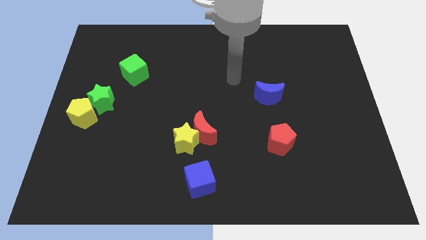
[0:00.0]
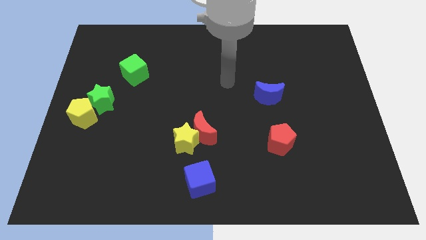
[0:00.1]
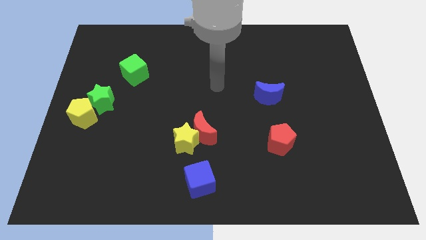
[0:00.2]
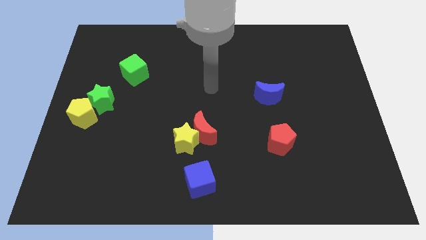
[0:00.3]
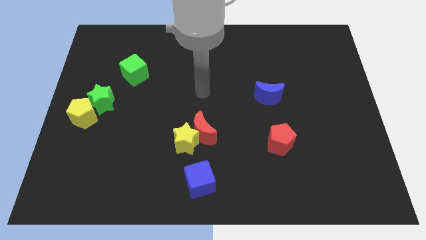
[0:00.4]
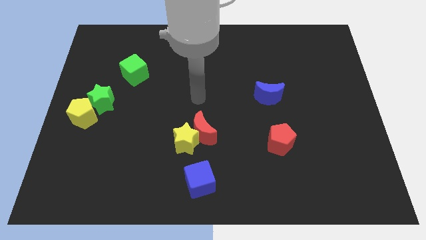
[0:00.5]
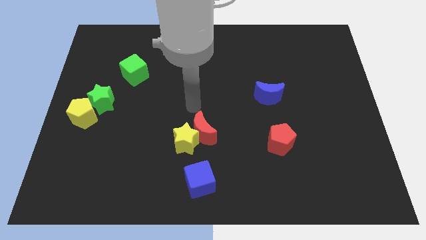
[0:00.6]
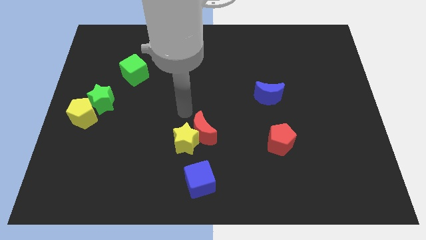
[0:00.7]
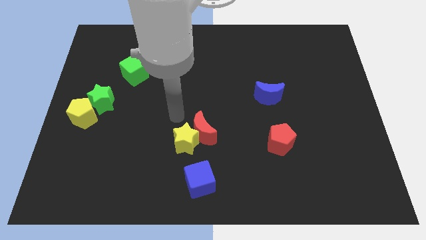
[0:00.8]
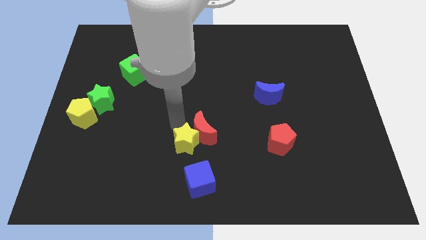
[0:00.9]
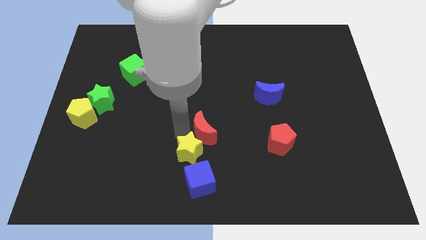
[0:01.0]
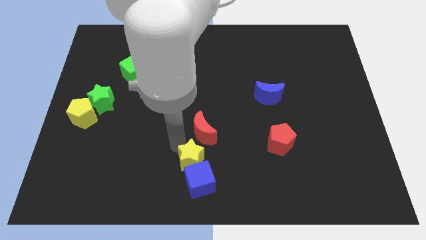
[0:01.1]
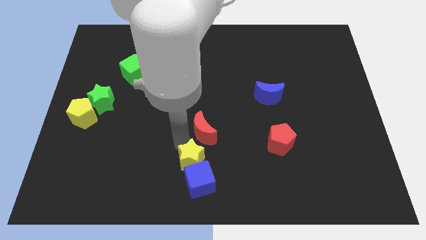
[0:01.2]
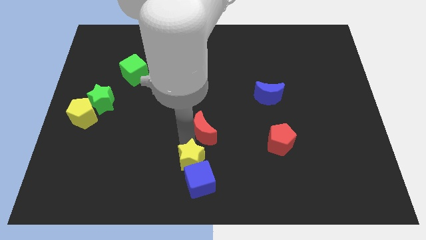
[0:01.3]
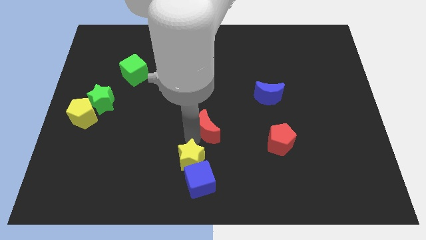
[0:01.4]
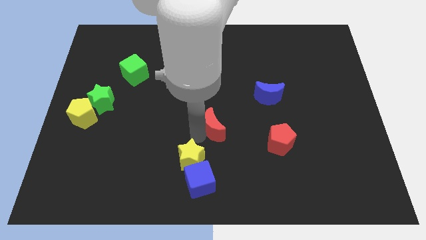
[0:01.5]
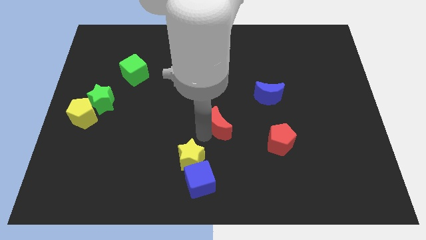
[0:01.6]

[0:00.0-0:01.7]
move the red moon away from the yellow star

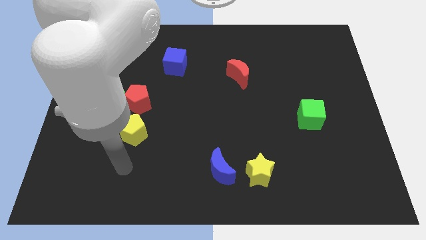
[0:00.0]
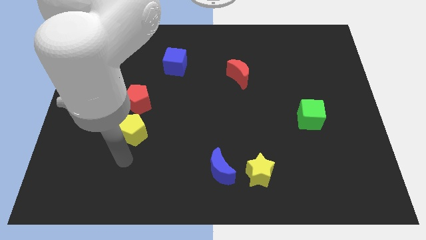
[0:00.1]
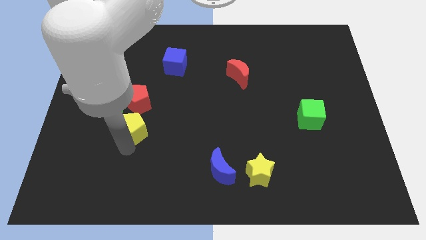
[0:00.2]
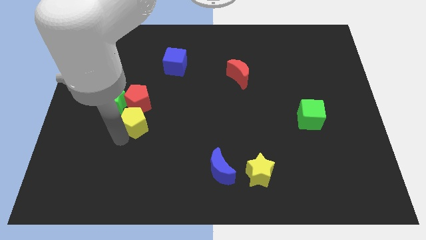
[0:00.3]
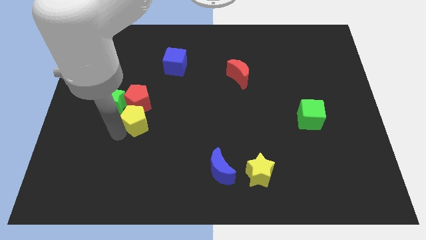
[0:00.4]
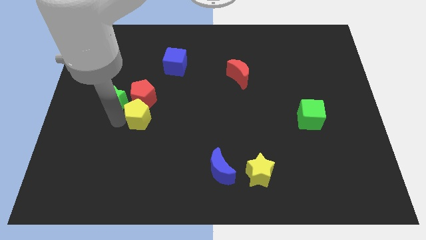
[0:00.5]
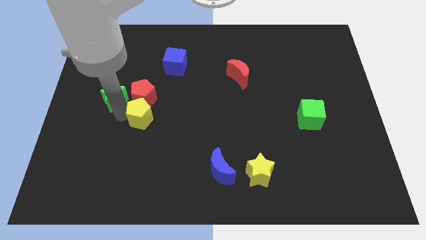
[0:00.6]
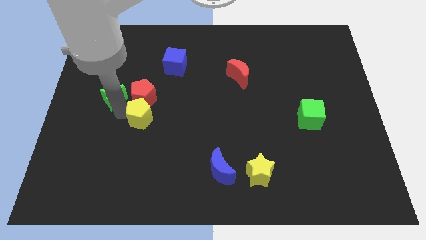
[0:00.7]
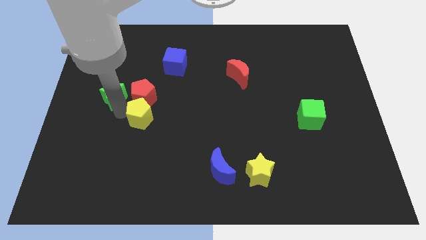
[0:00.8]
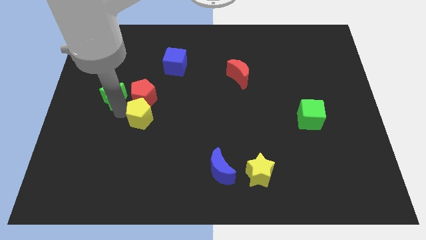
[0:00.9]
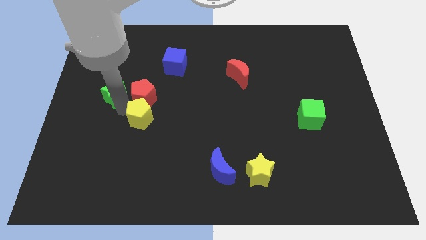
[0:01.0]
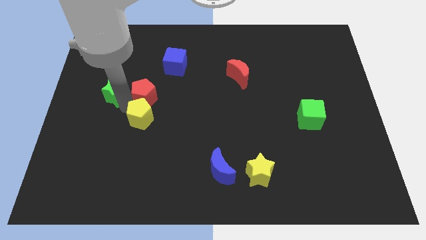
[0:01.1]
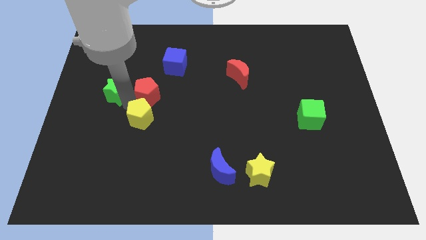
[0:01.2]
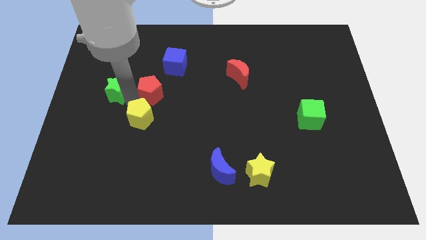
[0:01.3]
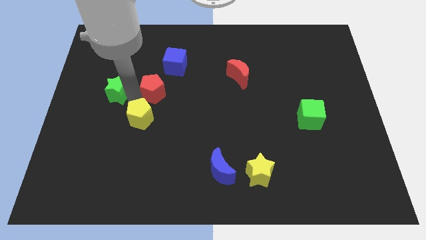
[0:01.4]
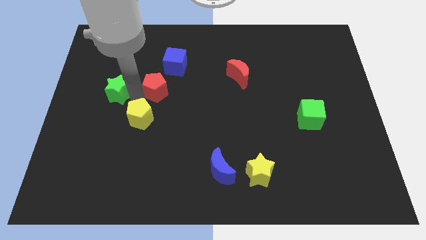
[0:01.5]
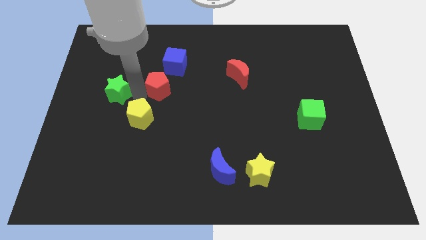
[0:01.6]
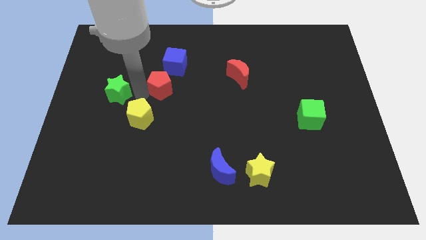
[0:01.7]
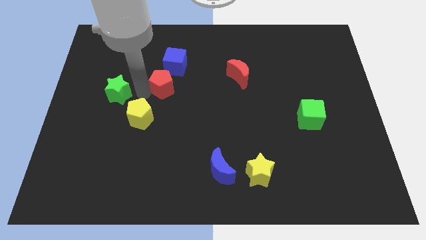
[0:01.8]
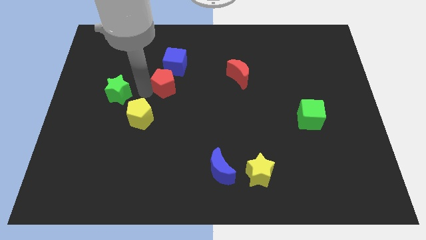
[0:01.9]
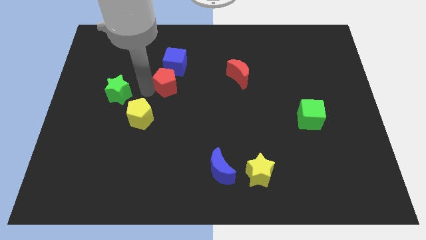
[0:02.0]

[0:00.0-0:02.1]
move the red pentagon away from the green star and yellow pentagon

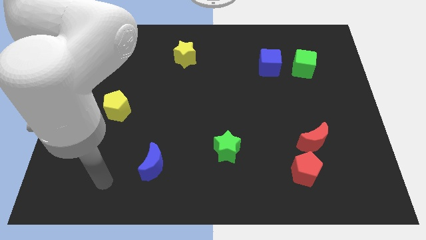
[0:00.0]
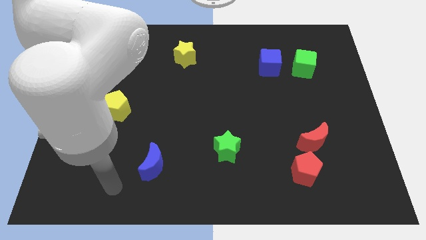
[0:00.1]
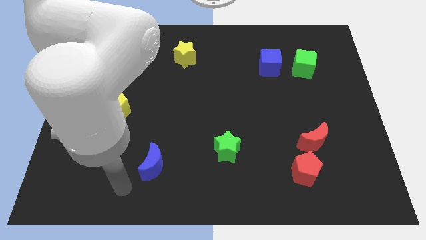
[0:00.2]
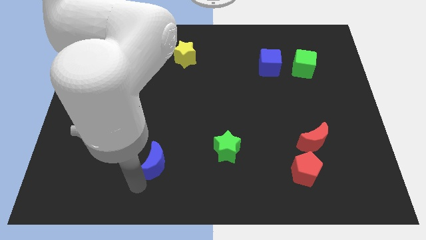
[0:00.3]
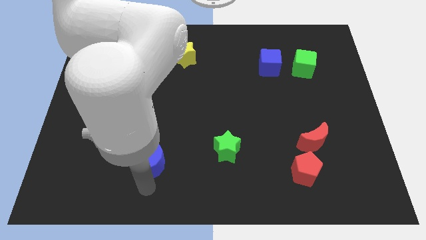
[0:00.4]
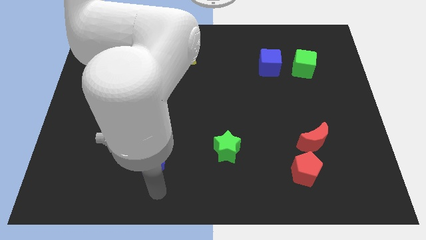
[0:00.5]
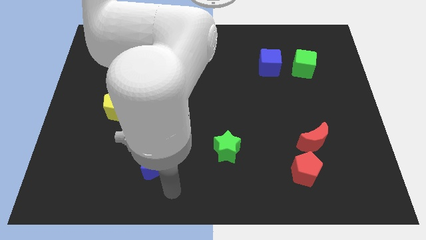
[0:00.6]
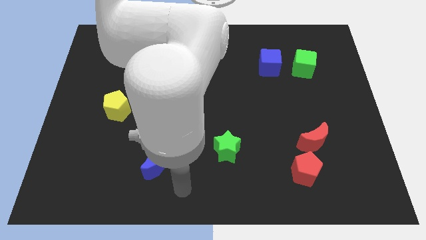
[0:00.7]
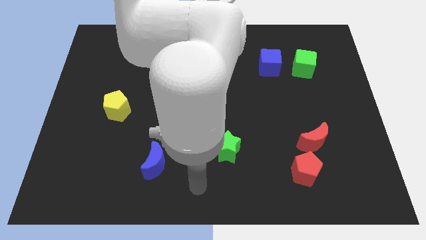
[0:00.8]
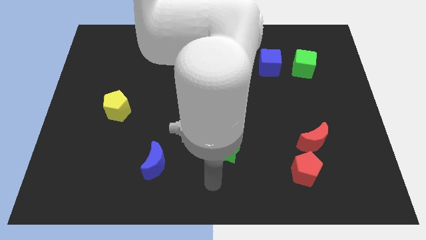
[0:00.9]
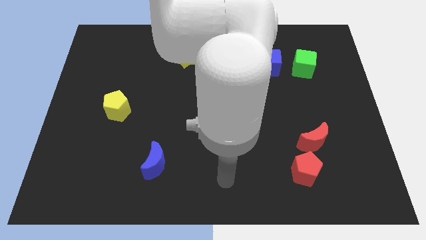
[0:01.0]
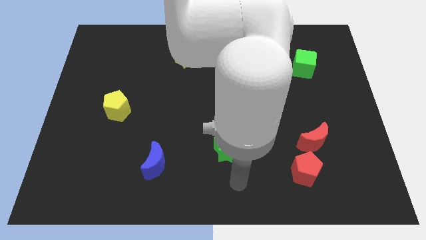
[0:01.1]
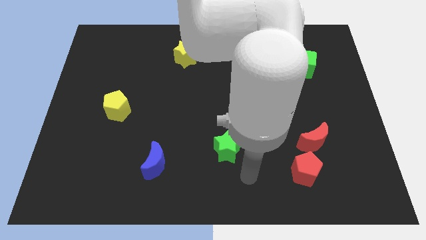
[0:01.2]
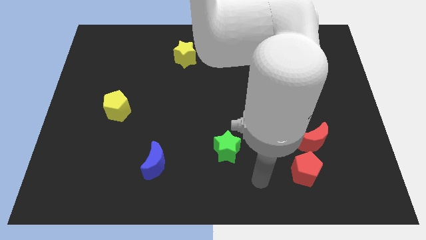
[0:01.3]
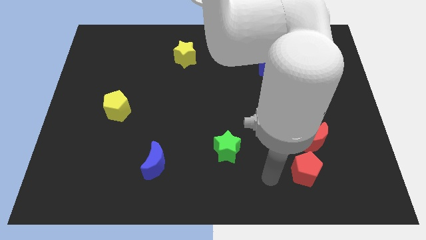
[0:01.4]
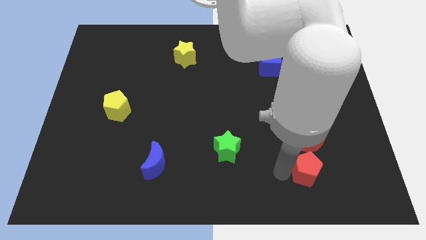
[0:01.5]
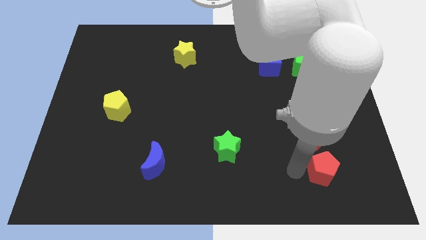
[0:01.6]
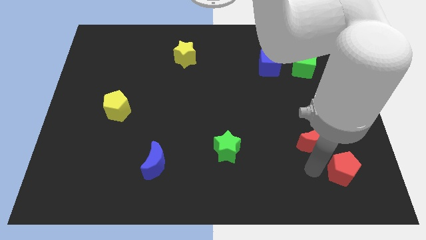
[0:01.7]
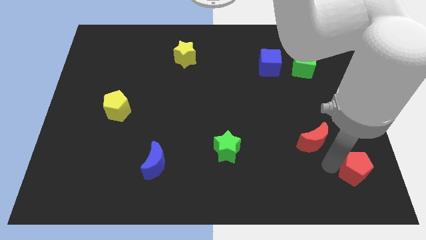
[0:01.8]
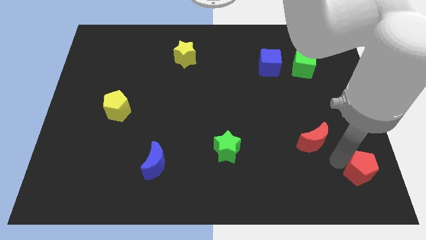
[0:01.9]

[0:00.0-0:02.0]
move the red moon away from the red pentagon

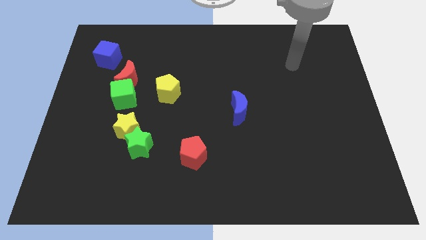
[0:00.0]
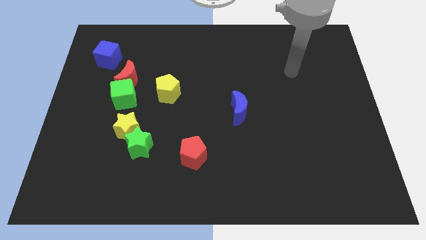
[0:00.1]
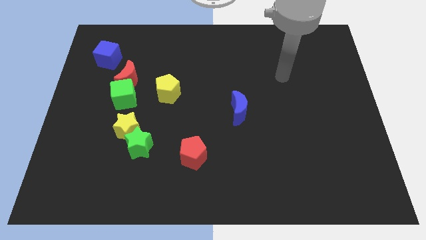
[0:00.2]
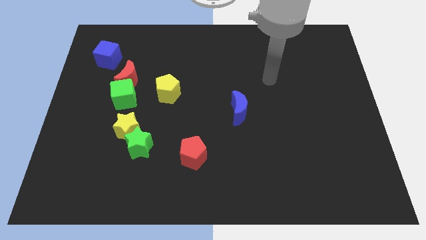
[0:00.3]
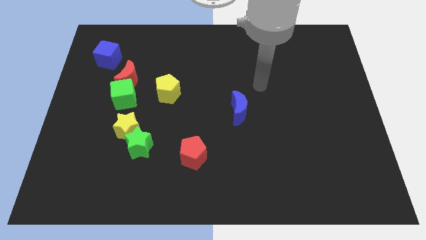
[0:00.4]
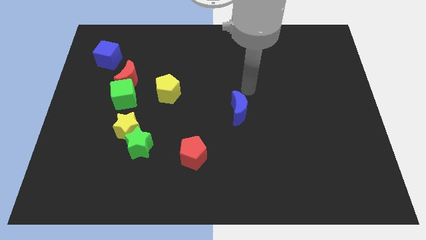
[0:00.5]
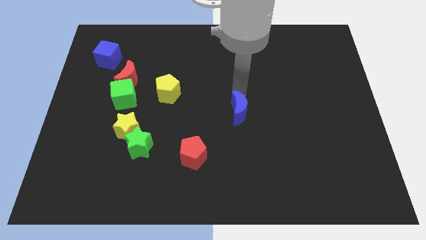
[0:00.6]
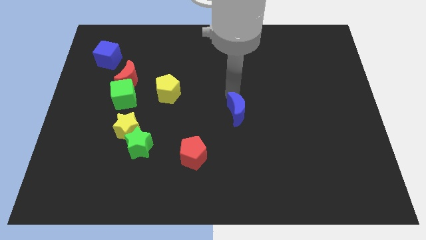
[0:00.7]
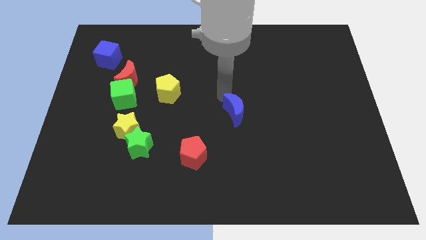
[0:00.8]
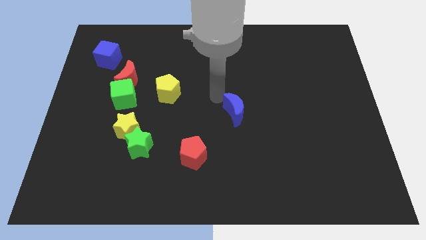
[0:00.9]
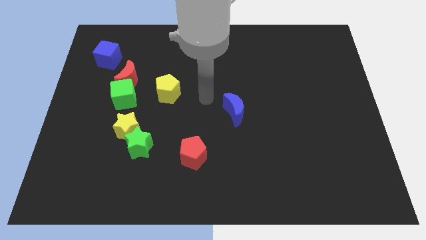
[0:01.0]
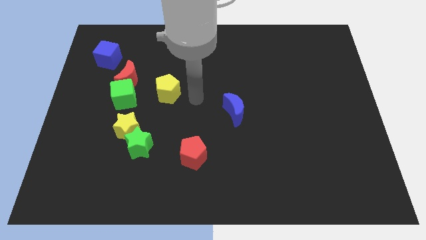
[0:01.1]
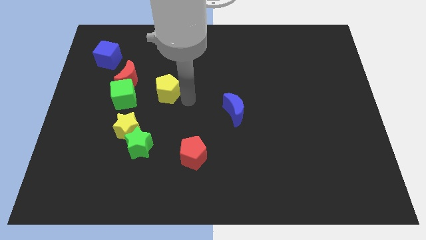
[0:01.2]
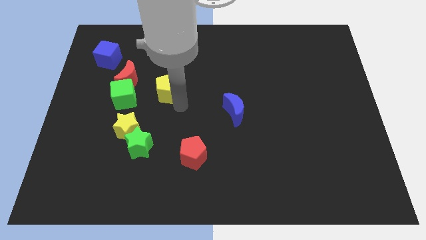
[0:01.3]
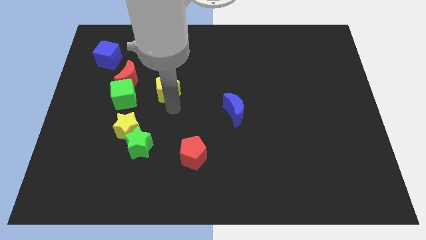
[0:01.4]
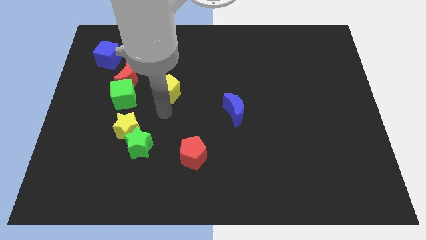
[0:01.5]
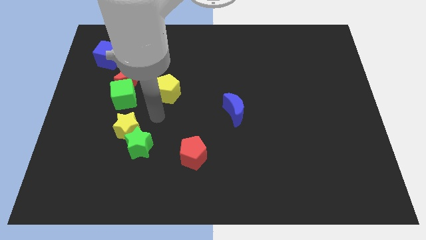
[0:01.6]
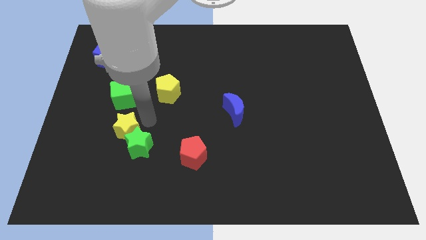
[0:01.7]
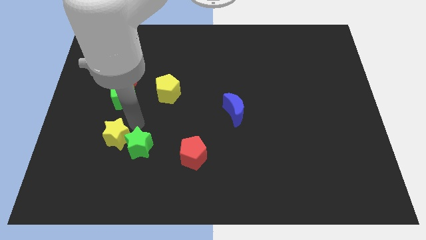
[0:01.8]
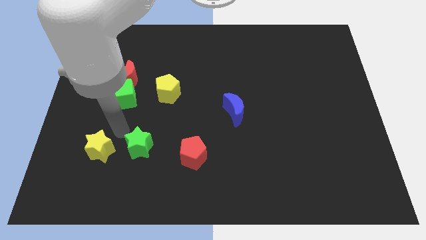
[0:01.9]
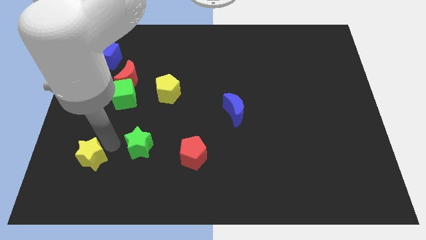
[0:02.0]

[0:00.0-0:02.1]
pull the green star apart from the yellow star

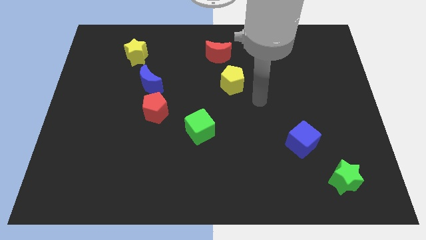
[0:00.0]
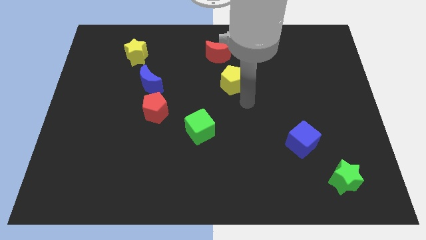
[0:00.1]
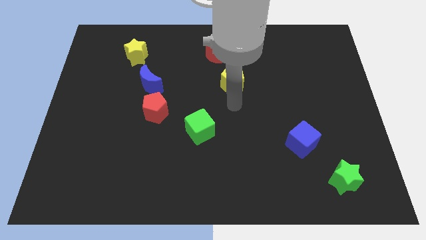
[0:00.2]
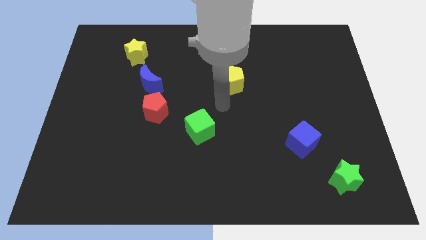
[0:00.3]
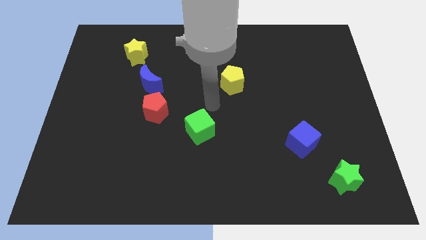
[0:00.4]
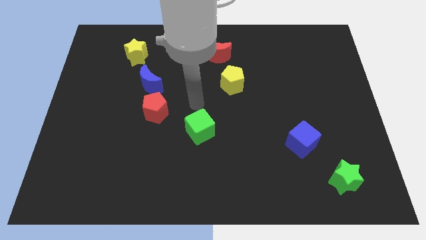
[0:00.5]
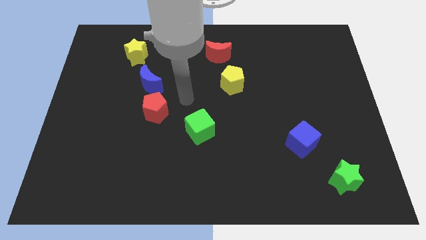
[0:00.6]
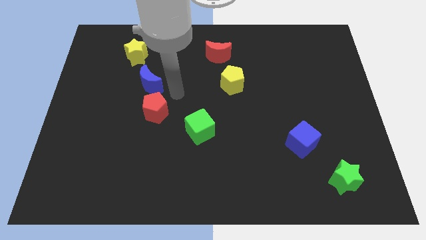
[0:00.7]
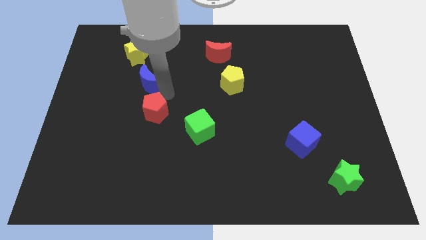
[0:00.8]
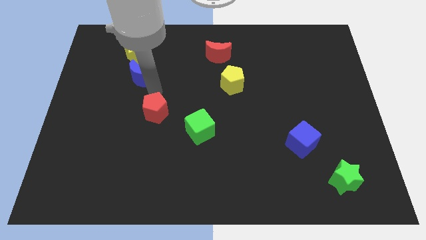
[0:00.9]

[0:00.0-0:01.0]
pull the red pentagon apart from the blue moon

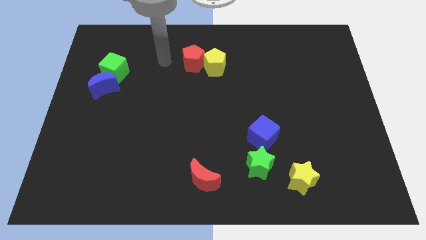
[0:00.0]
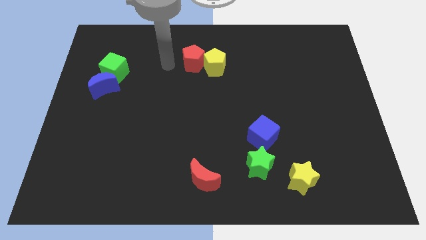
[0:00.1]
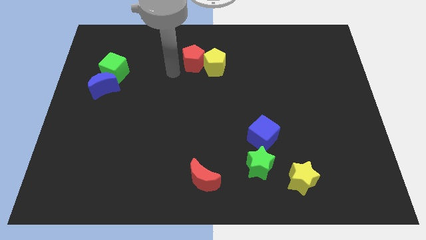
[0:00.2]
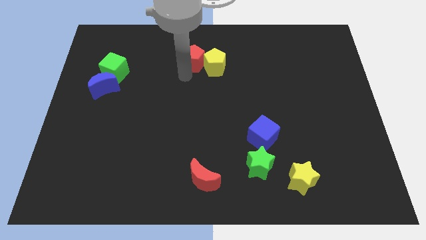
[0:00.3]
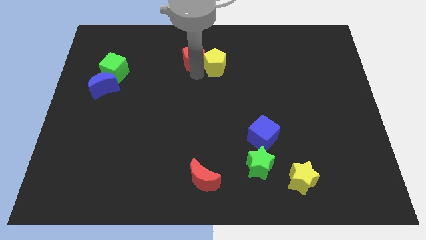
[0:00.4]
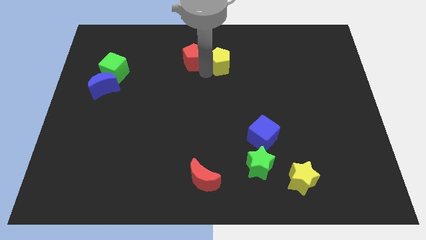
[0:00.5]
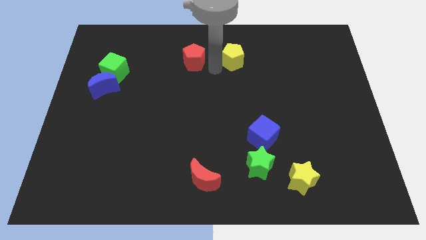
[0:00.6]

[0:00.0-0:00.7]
separate the red pentagon from the yellow pentagon
